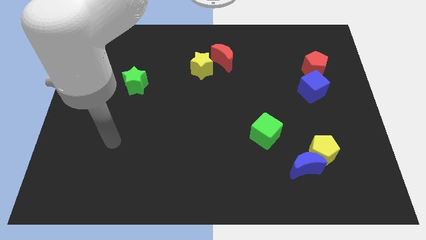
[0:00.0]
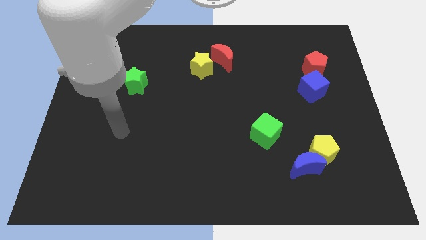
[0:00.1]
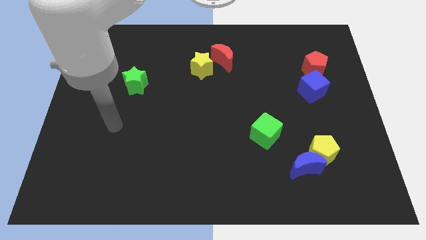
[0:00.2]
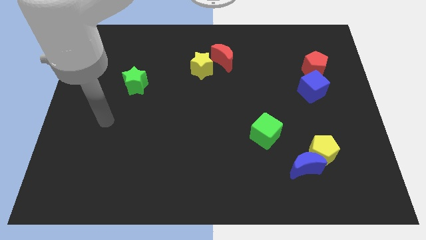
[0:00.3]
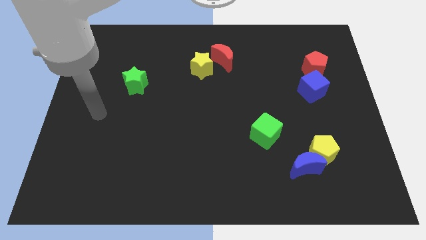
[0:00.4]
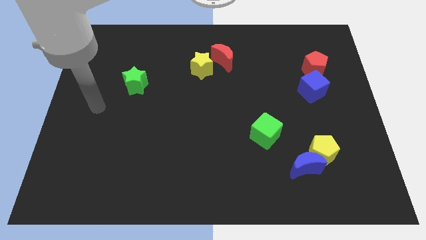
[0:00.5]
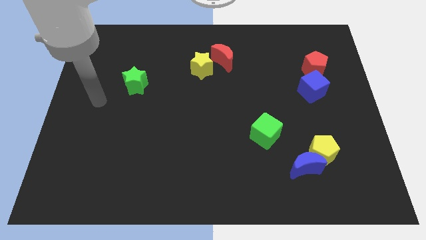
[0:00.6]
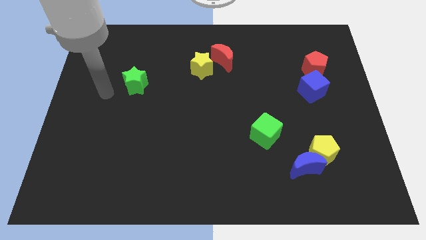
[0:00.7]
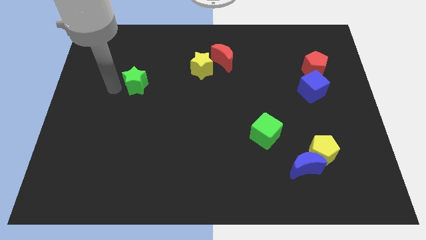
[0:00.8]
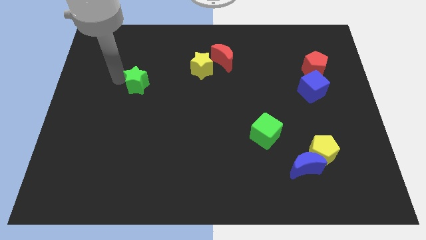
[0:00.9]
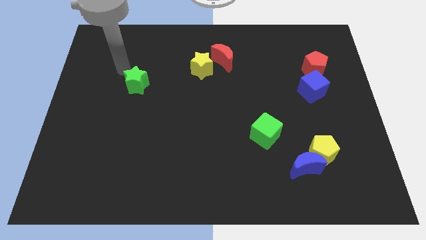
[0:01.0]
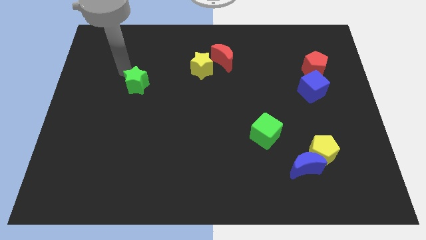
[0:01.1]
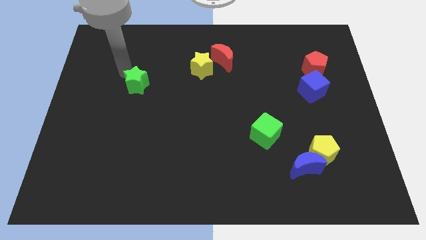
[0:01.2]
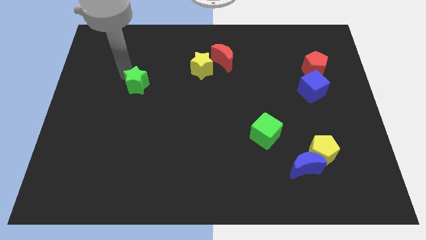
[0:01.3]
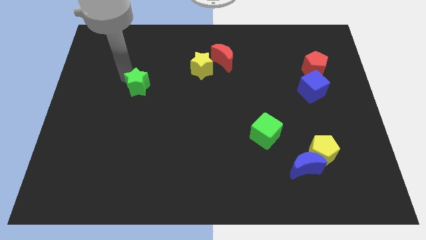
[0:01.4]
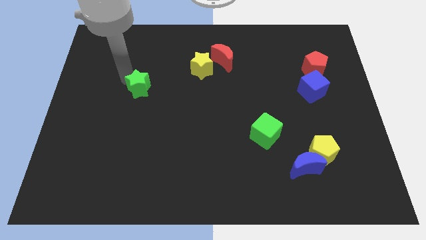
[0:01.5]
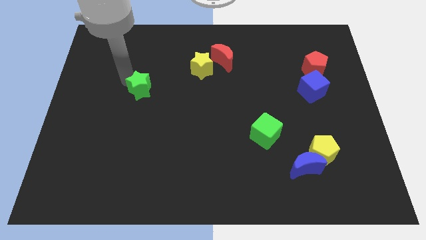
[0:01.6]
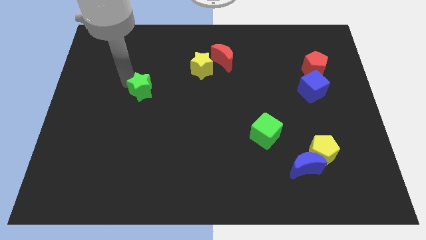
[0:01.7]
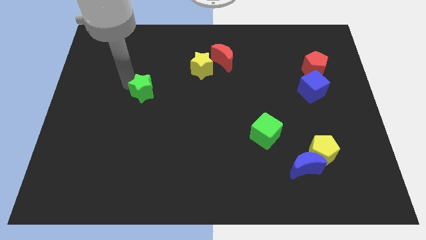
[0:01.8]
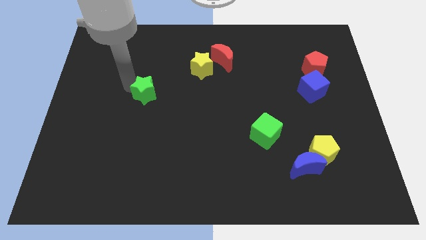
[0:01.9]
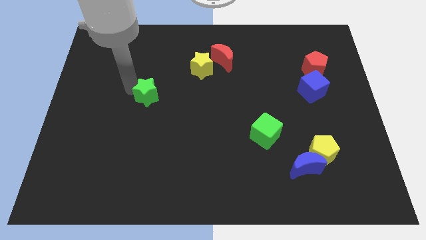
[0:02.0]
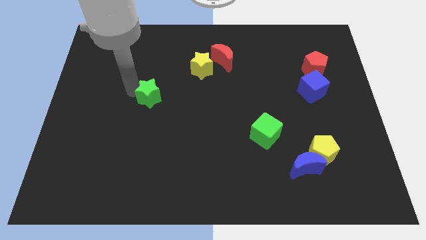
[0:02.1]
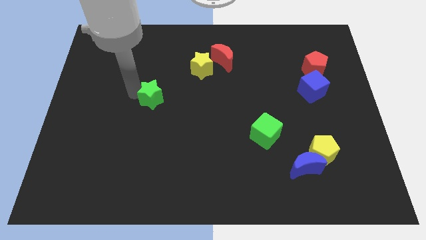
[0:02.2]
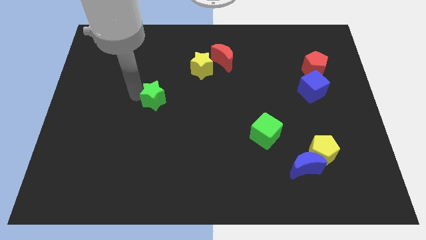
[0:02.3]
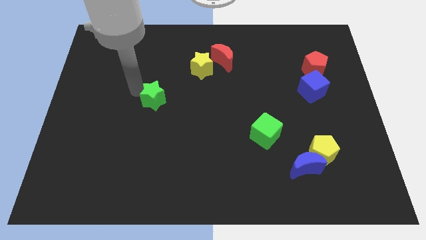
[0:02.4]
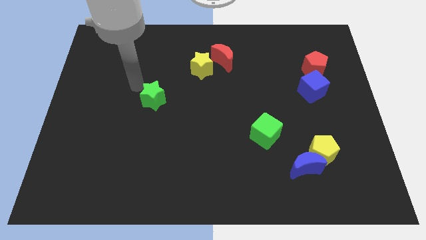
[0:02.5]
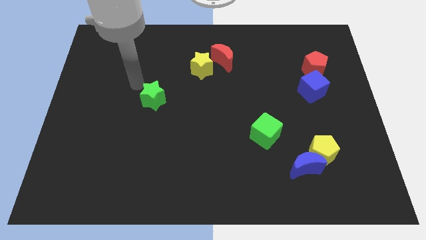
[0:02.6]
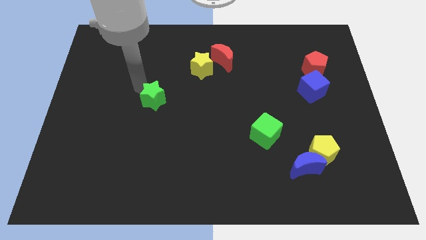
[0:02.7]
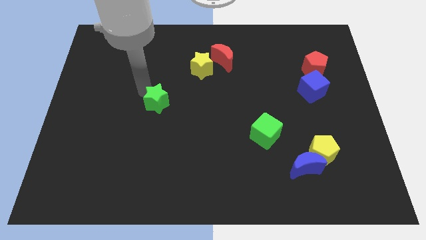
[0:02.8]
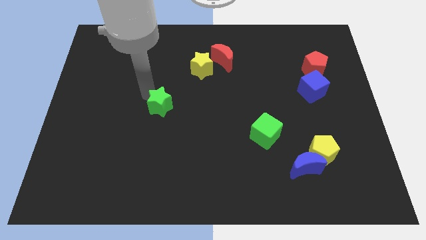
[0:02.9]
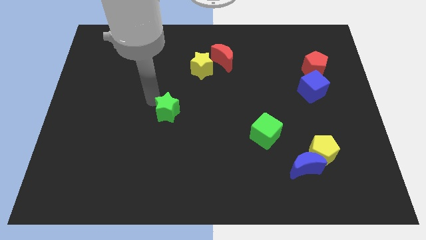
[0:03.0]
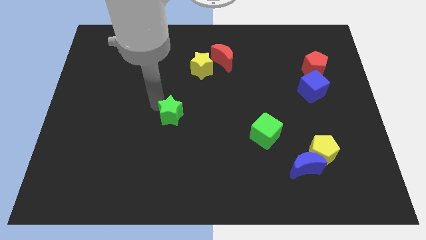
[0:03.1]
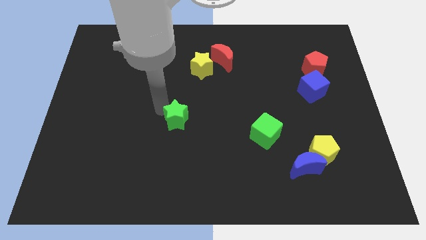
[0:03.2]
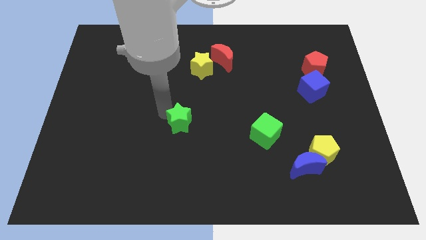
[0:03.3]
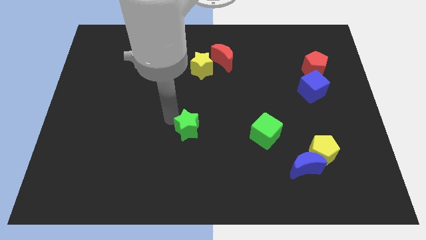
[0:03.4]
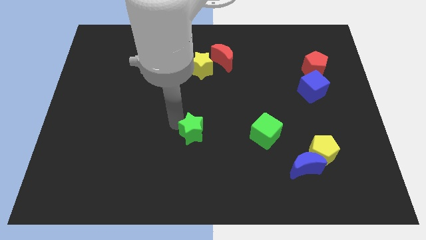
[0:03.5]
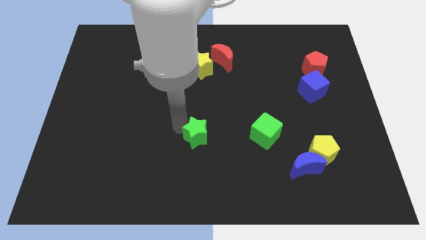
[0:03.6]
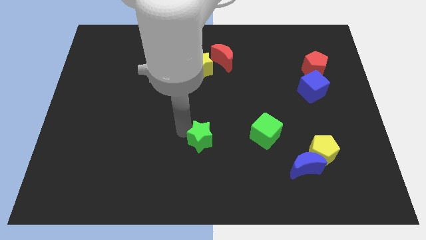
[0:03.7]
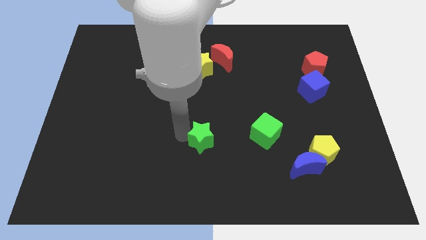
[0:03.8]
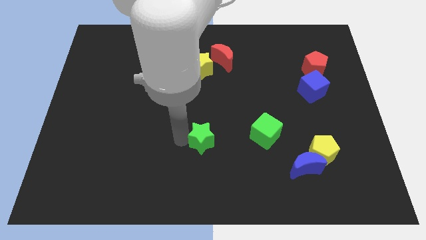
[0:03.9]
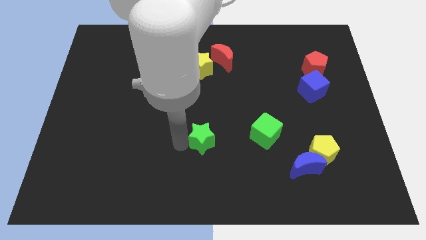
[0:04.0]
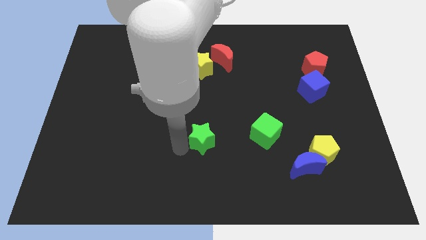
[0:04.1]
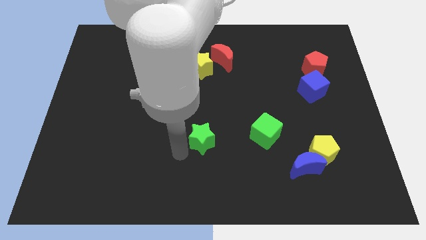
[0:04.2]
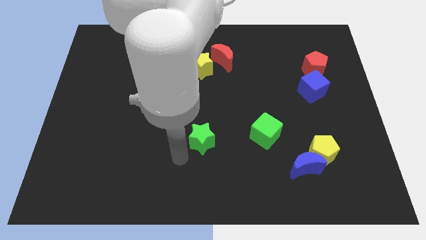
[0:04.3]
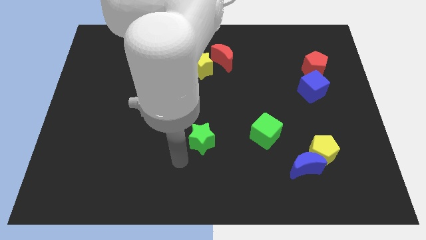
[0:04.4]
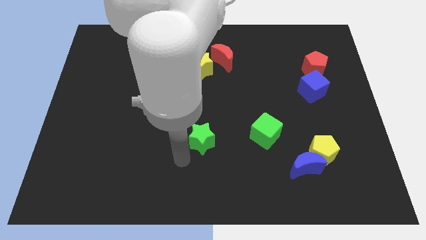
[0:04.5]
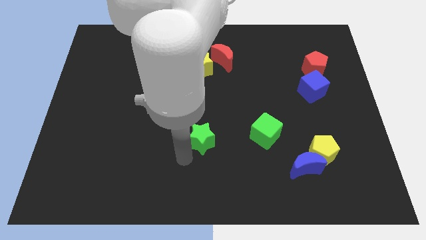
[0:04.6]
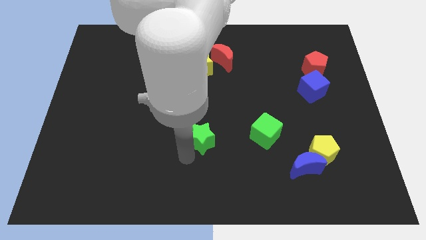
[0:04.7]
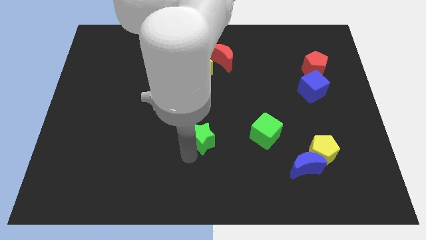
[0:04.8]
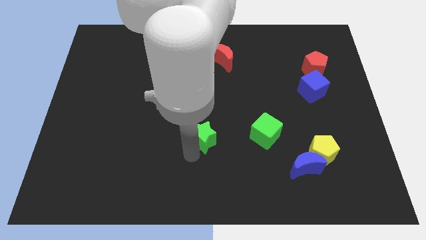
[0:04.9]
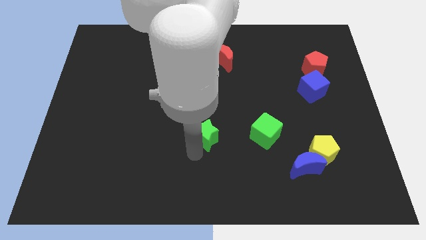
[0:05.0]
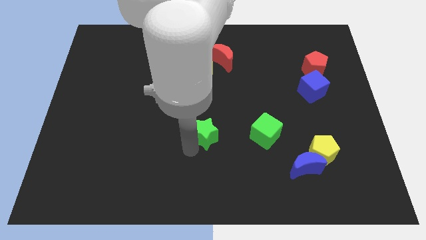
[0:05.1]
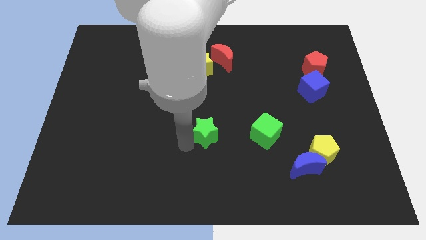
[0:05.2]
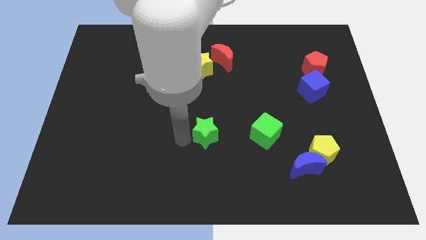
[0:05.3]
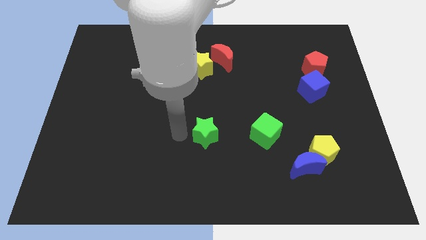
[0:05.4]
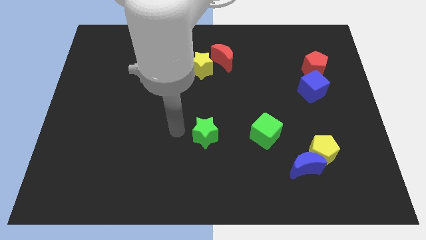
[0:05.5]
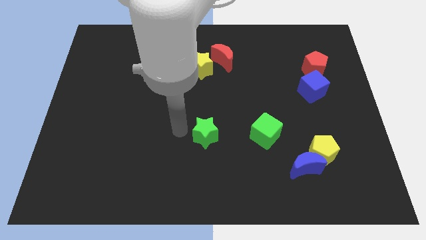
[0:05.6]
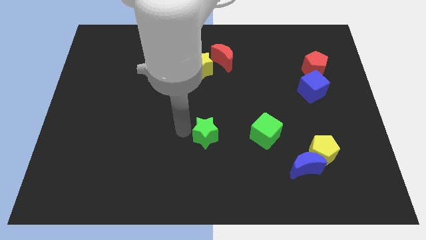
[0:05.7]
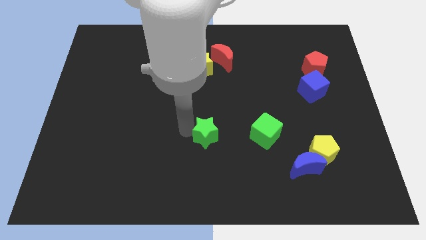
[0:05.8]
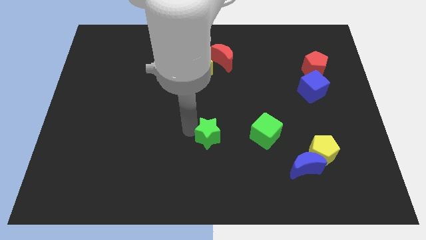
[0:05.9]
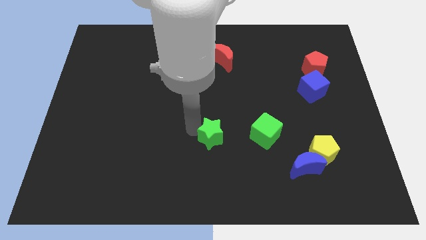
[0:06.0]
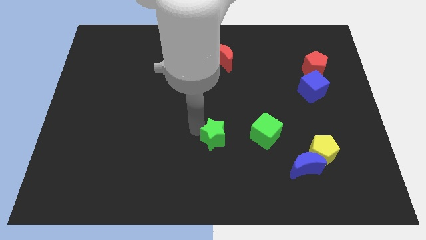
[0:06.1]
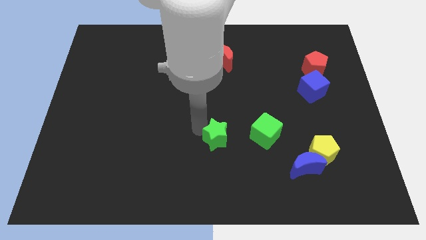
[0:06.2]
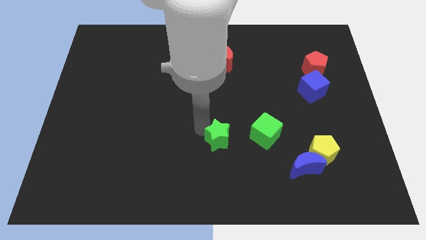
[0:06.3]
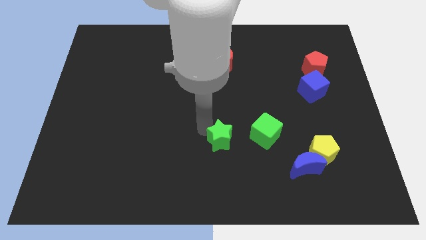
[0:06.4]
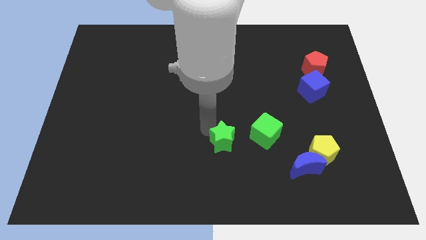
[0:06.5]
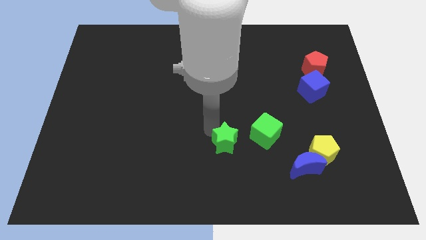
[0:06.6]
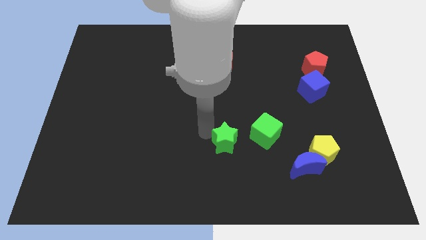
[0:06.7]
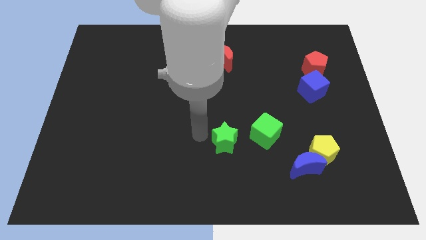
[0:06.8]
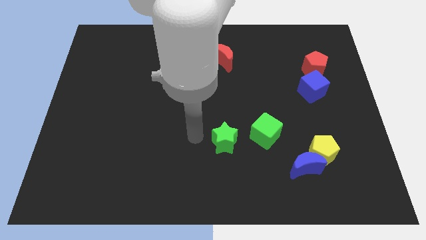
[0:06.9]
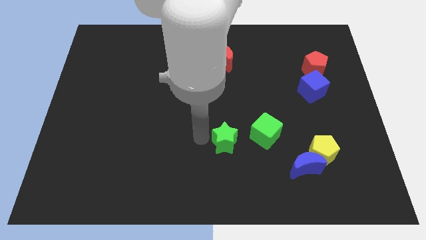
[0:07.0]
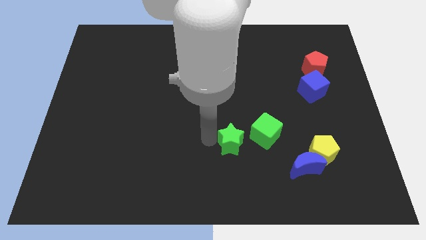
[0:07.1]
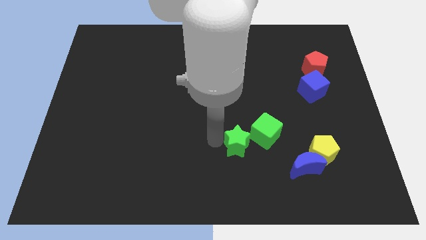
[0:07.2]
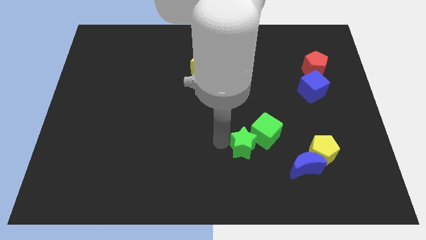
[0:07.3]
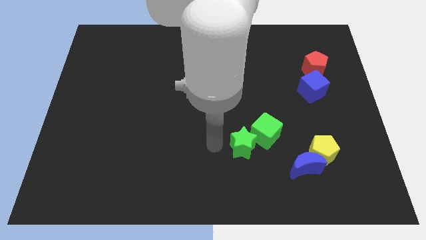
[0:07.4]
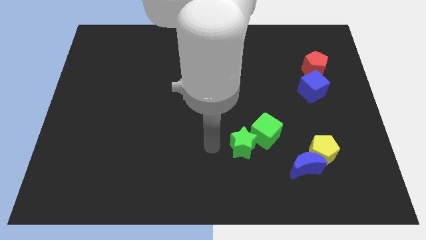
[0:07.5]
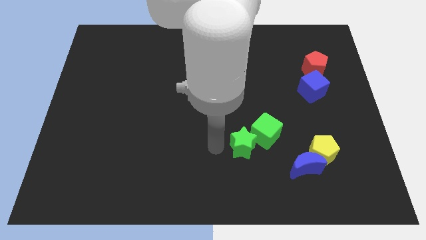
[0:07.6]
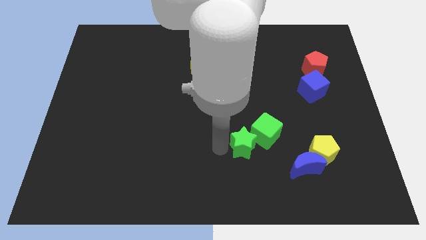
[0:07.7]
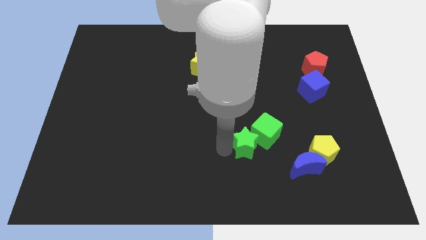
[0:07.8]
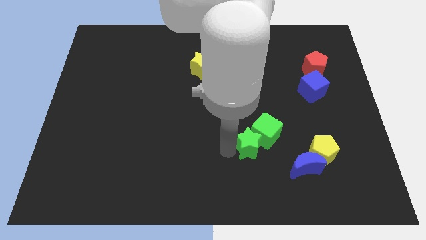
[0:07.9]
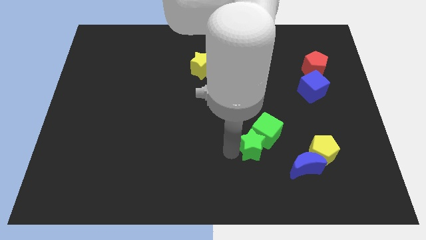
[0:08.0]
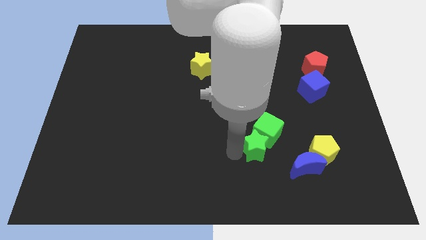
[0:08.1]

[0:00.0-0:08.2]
push the green star to the top left of the blue moon
